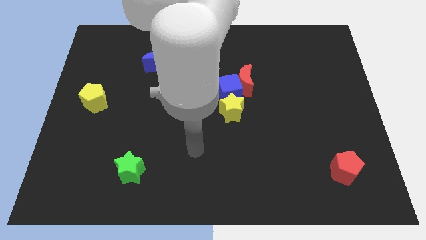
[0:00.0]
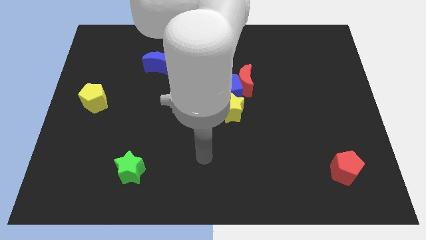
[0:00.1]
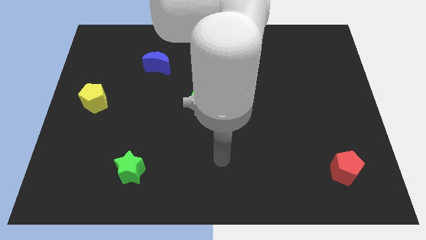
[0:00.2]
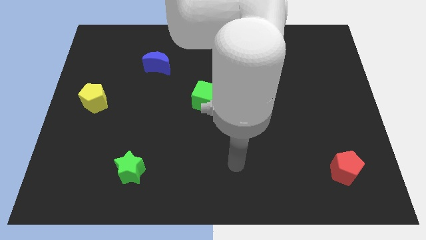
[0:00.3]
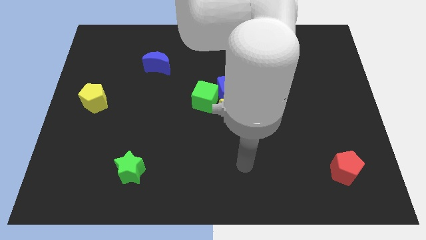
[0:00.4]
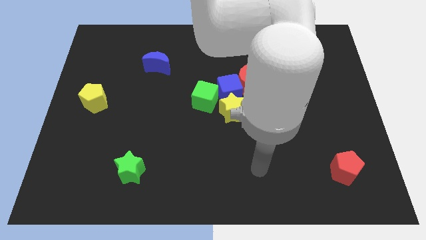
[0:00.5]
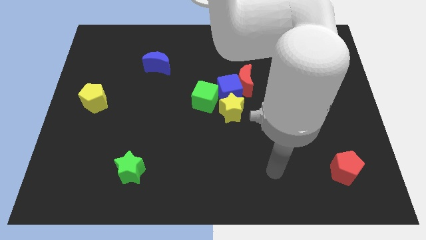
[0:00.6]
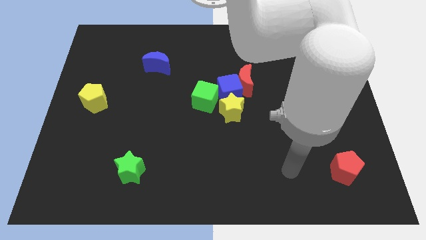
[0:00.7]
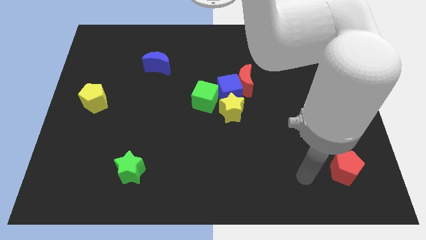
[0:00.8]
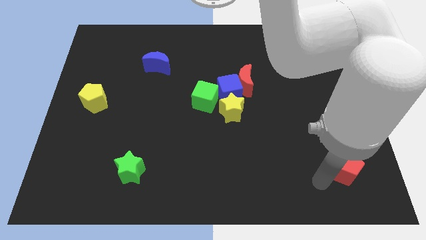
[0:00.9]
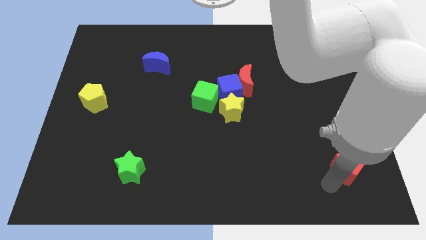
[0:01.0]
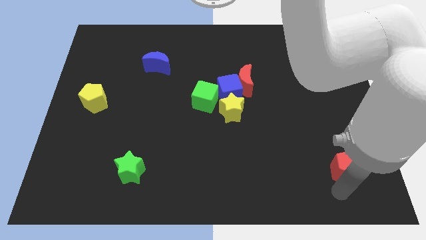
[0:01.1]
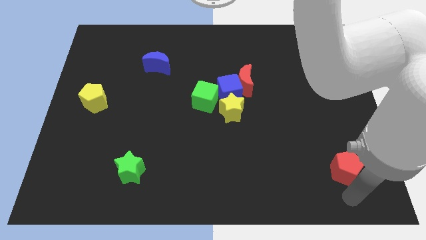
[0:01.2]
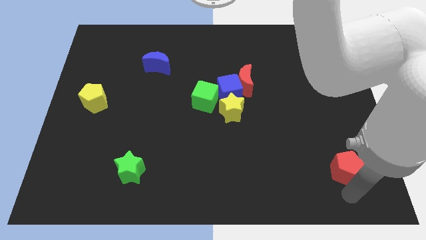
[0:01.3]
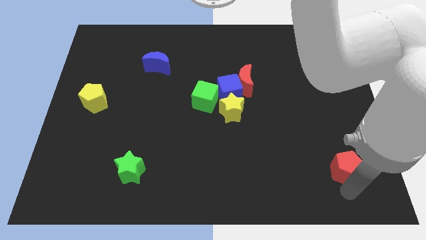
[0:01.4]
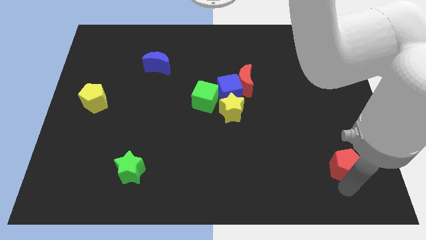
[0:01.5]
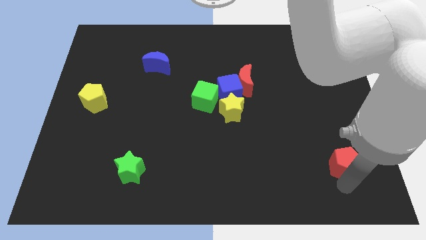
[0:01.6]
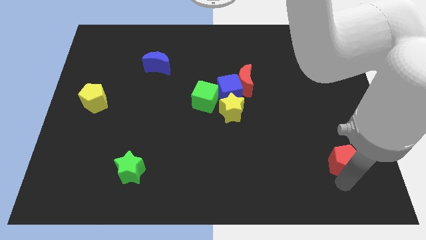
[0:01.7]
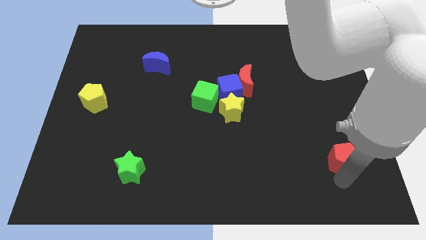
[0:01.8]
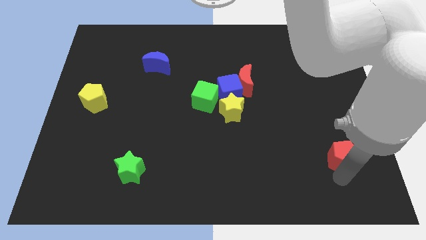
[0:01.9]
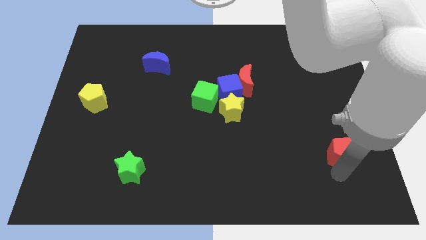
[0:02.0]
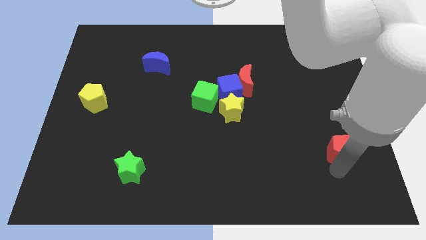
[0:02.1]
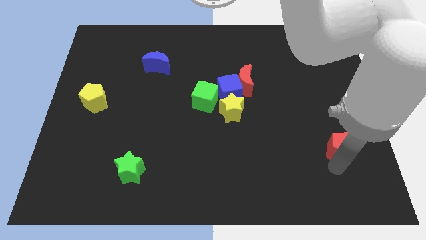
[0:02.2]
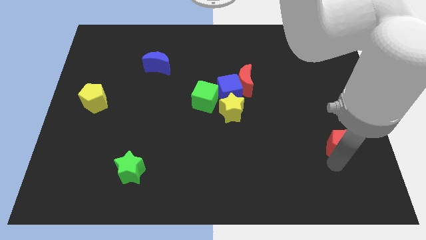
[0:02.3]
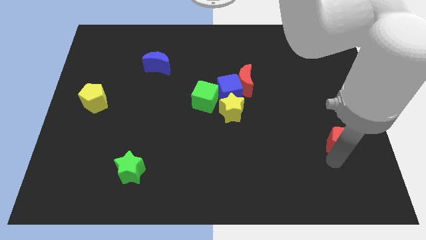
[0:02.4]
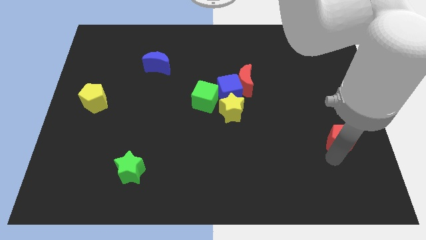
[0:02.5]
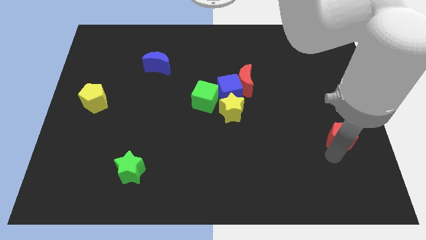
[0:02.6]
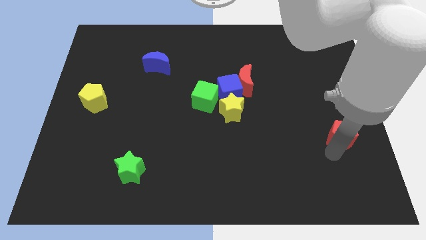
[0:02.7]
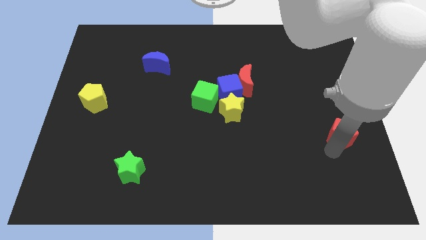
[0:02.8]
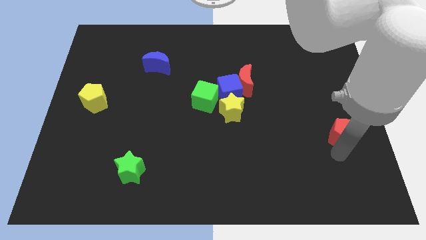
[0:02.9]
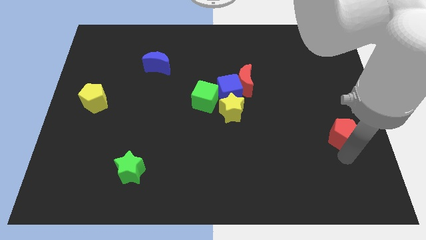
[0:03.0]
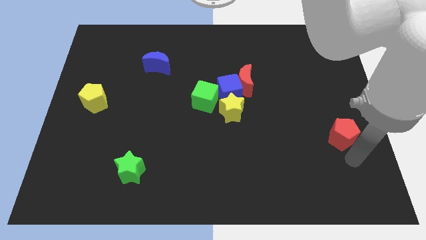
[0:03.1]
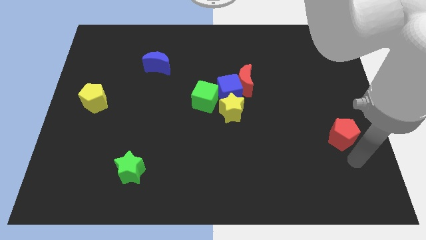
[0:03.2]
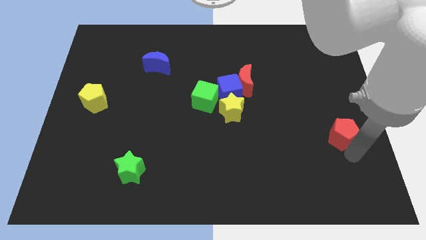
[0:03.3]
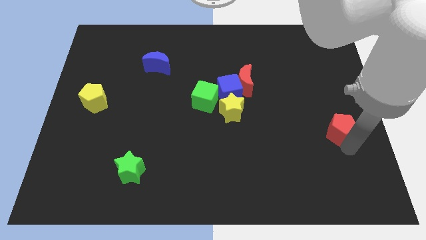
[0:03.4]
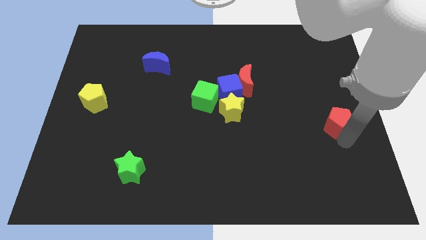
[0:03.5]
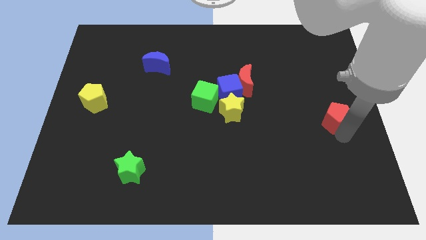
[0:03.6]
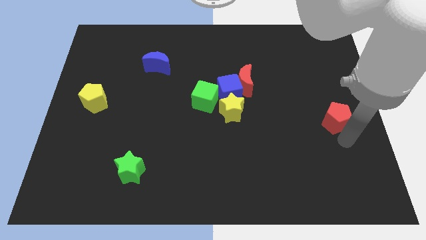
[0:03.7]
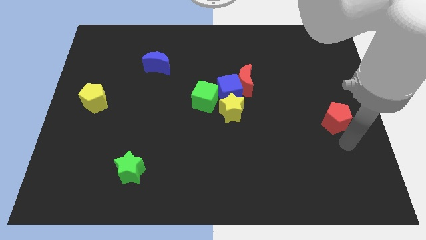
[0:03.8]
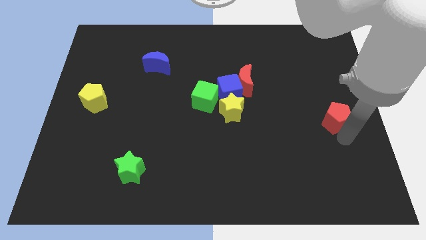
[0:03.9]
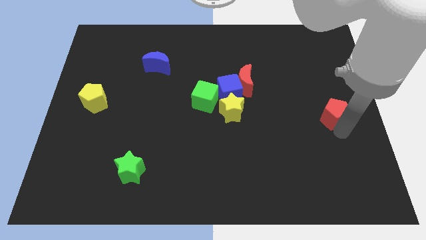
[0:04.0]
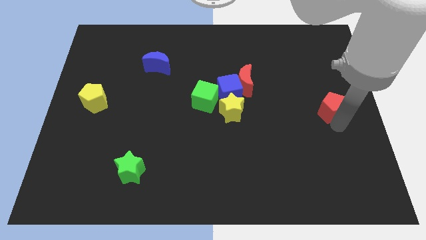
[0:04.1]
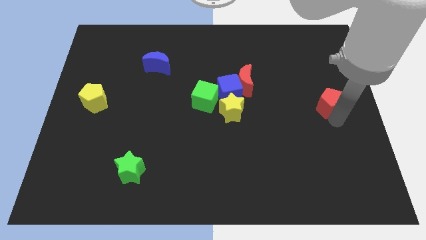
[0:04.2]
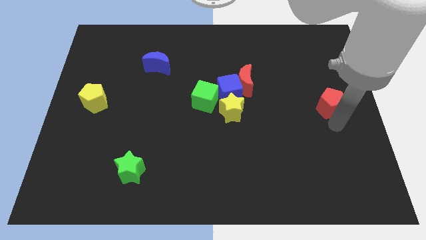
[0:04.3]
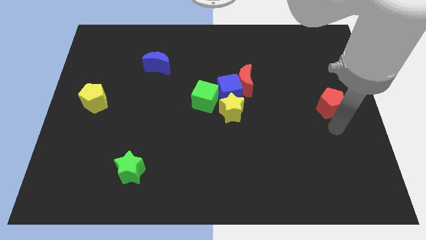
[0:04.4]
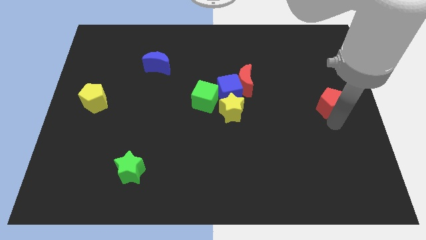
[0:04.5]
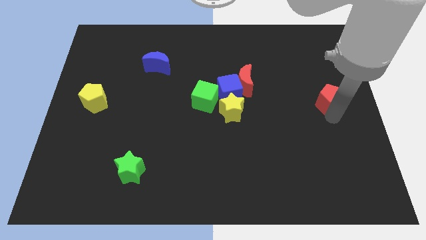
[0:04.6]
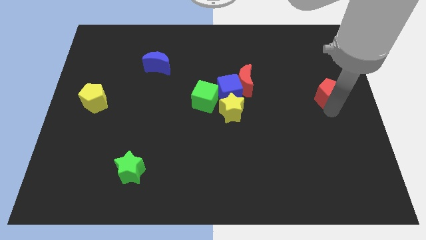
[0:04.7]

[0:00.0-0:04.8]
slide the red pentagon up

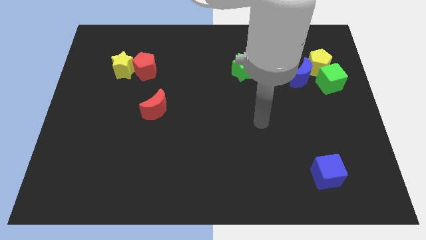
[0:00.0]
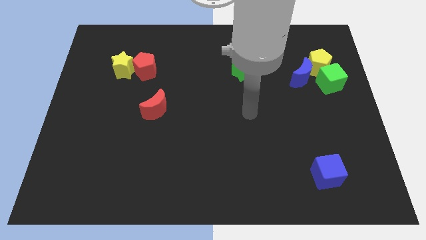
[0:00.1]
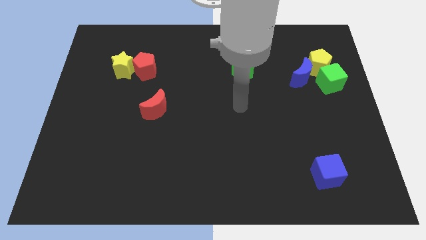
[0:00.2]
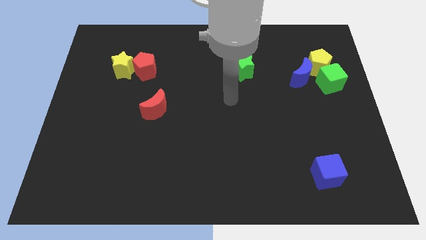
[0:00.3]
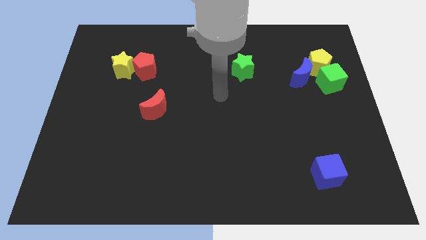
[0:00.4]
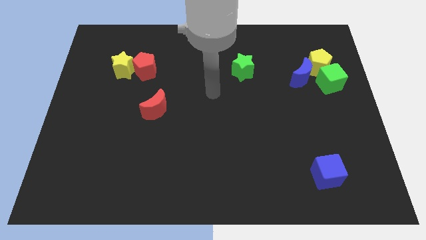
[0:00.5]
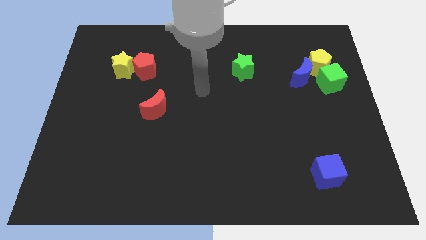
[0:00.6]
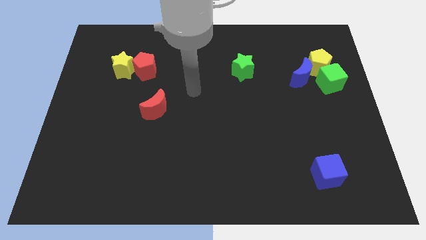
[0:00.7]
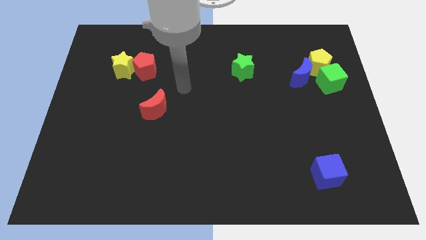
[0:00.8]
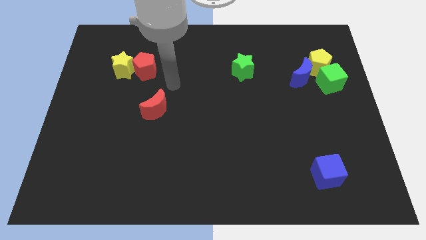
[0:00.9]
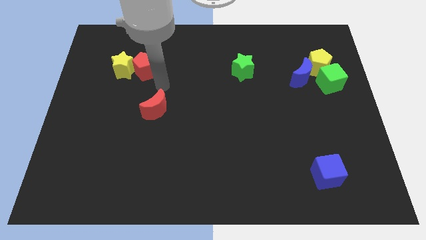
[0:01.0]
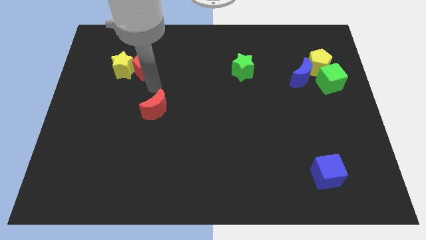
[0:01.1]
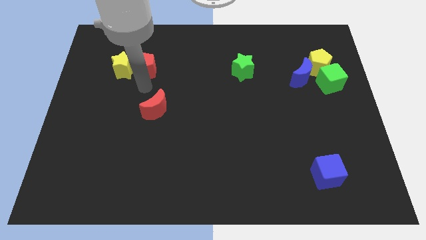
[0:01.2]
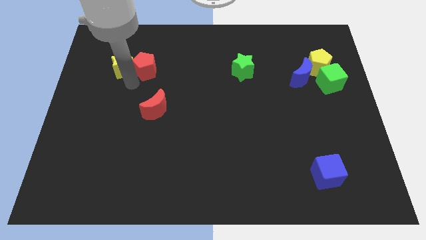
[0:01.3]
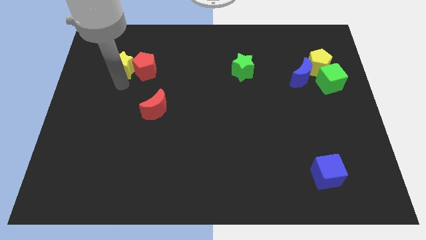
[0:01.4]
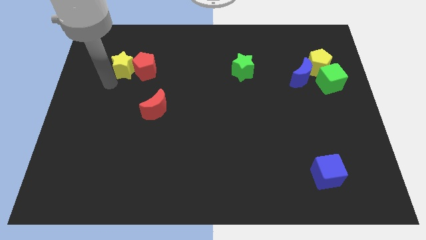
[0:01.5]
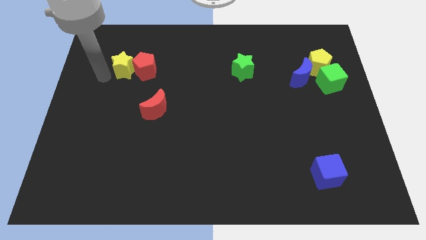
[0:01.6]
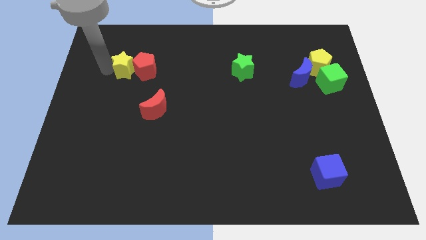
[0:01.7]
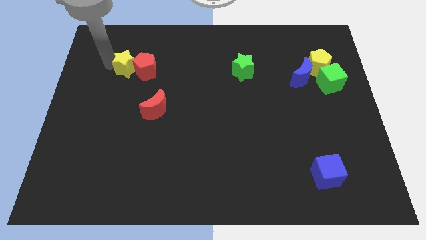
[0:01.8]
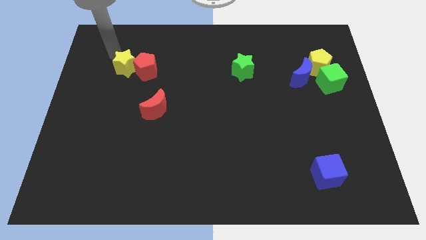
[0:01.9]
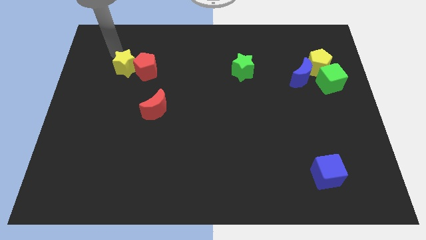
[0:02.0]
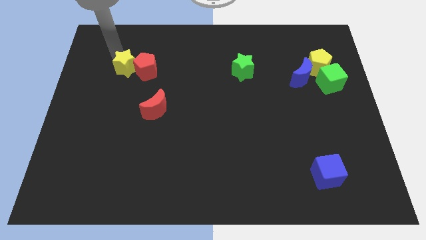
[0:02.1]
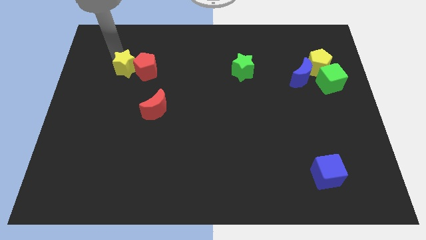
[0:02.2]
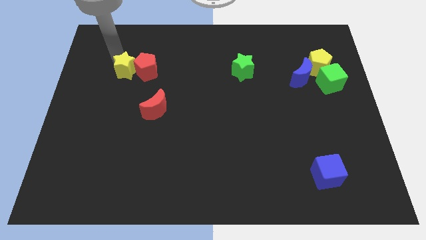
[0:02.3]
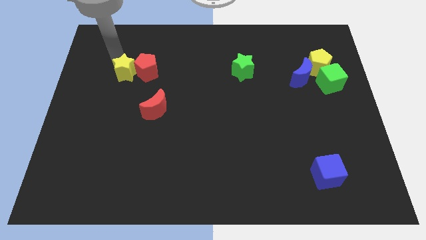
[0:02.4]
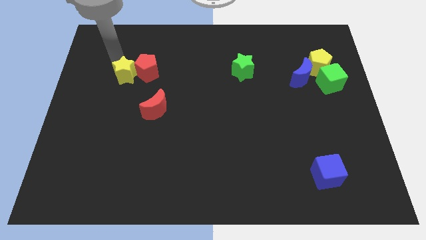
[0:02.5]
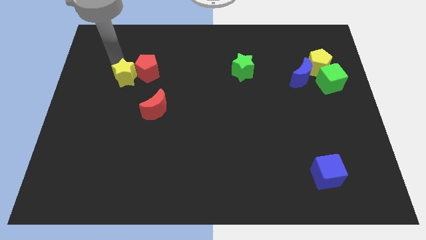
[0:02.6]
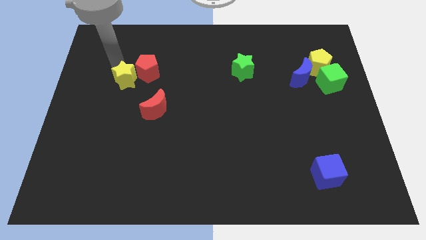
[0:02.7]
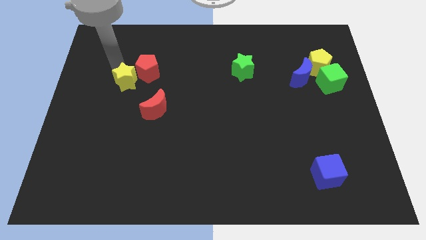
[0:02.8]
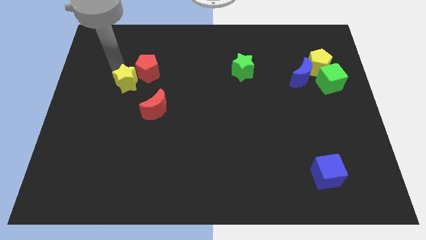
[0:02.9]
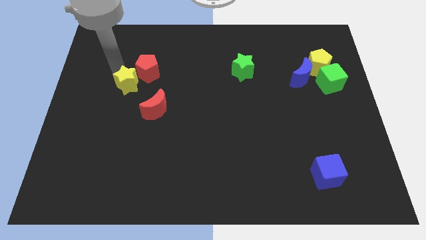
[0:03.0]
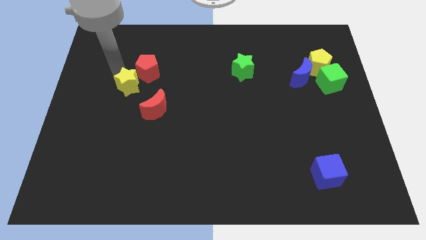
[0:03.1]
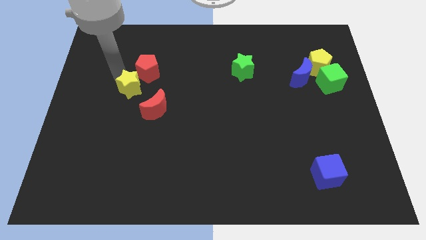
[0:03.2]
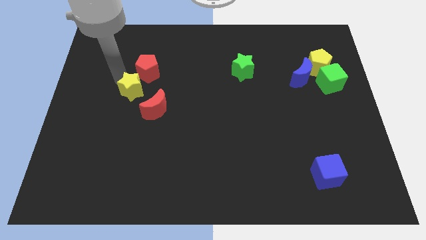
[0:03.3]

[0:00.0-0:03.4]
slightly move the yellow star down and then right
